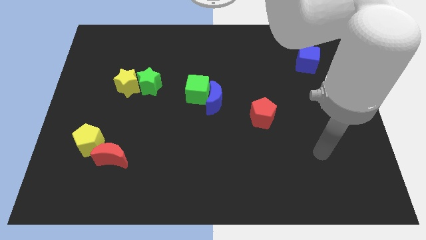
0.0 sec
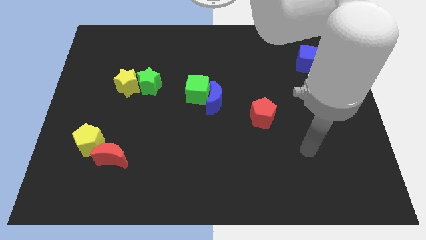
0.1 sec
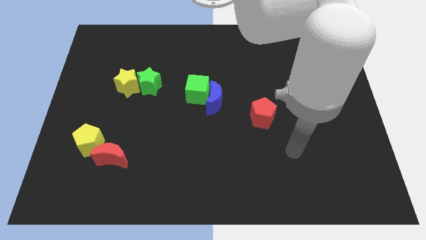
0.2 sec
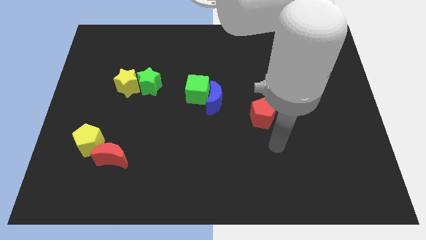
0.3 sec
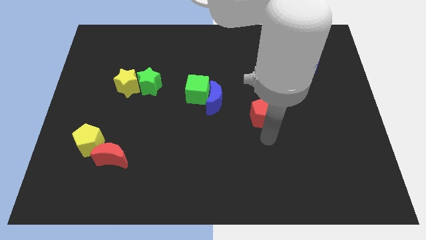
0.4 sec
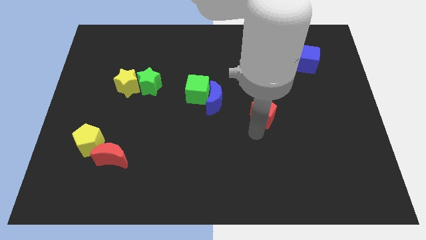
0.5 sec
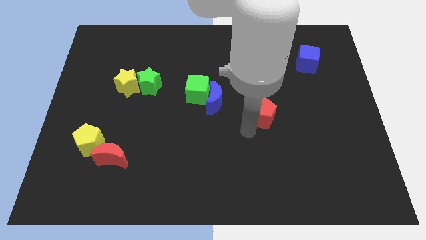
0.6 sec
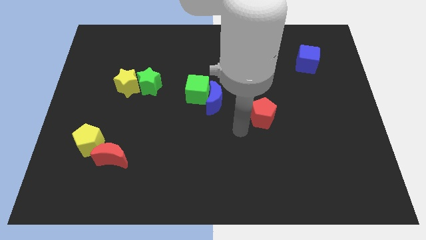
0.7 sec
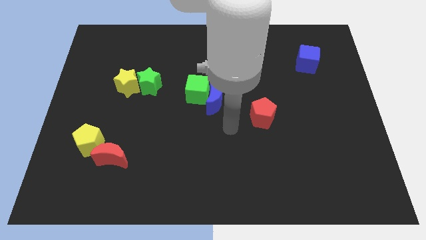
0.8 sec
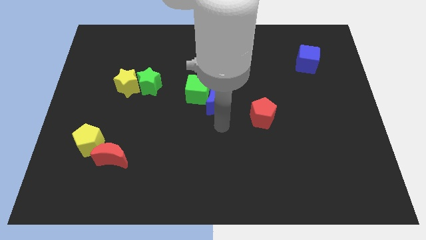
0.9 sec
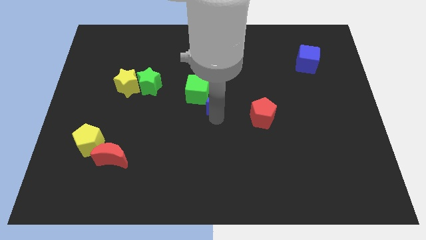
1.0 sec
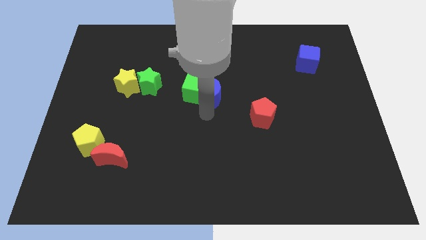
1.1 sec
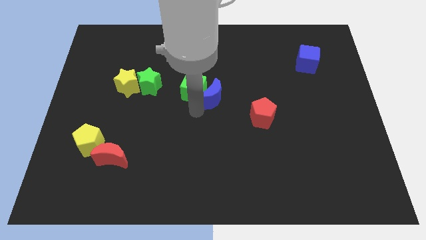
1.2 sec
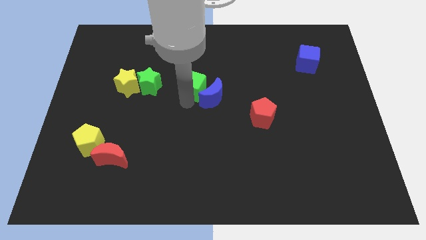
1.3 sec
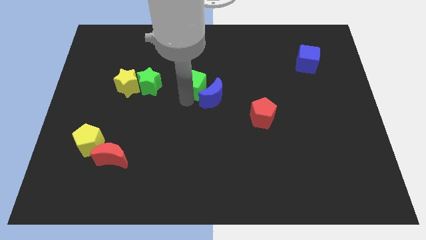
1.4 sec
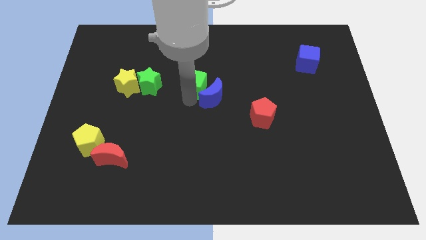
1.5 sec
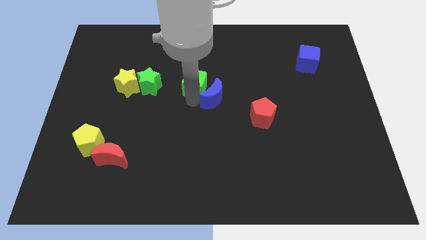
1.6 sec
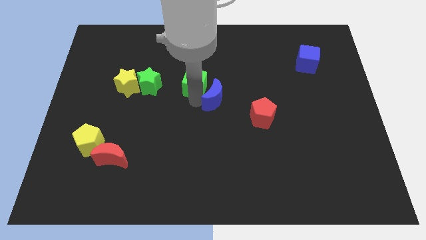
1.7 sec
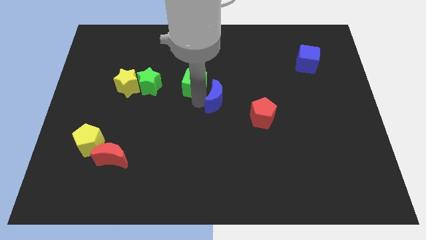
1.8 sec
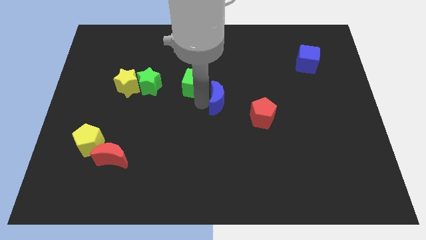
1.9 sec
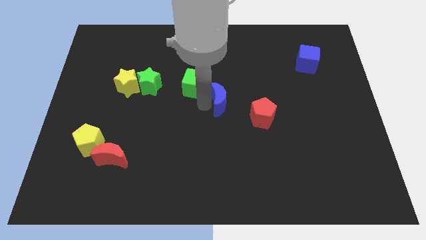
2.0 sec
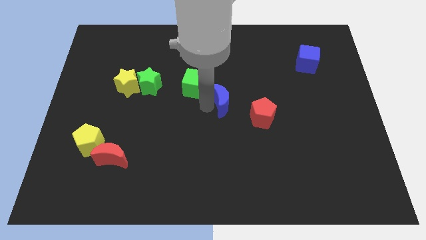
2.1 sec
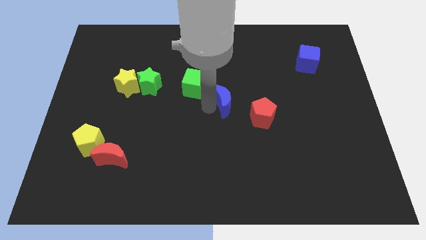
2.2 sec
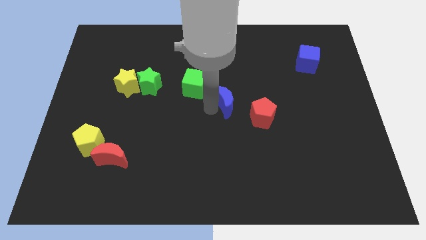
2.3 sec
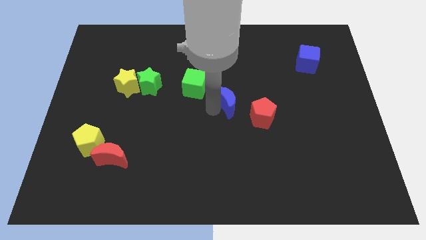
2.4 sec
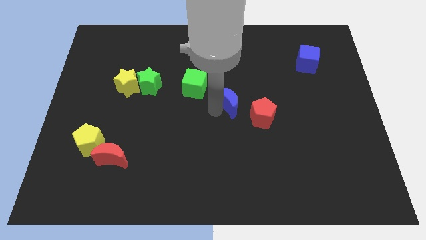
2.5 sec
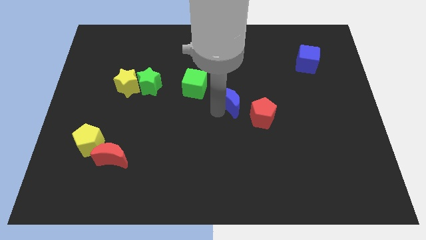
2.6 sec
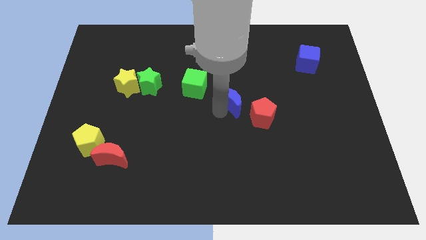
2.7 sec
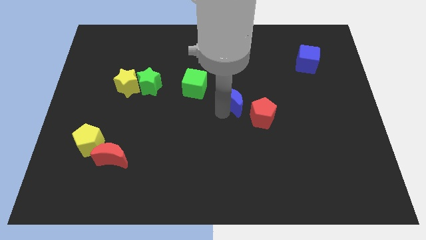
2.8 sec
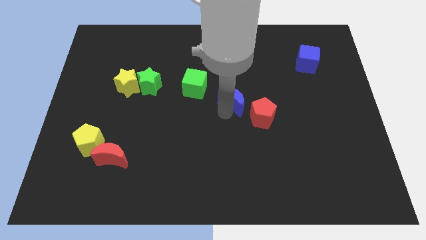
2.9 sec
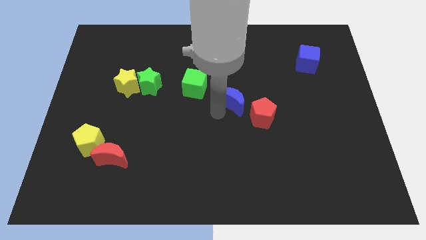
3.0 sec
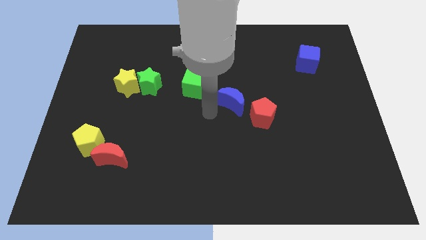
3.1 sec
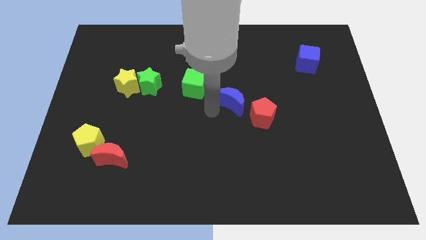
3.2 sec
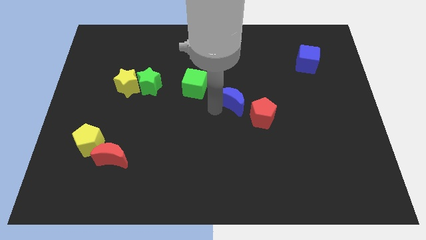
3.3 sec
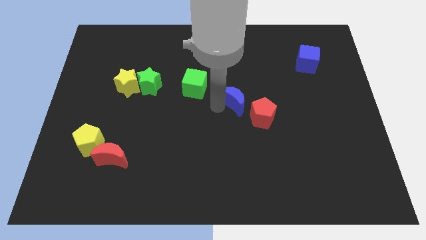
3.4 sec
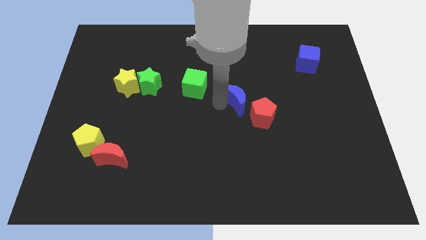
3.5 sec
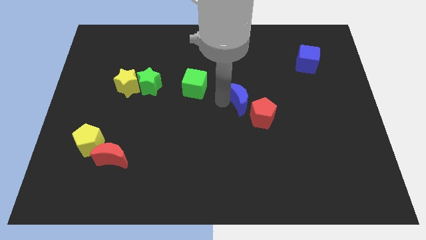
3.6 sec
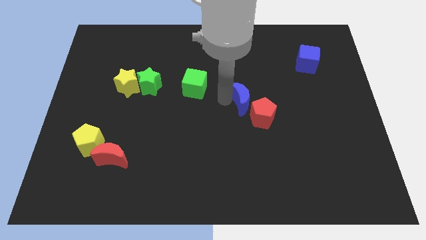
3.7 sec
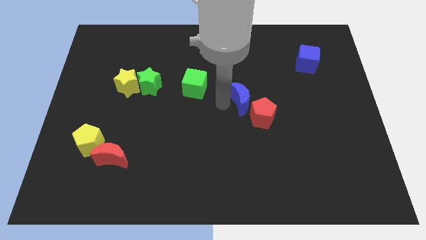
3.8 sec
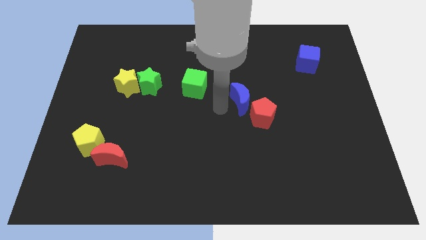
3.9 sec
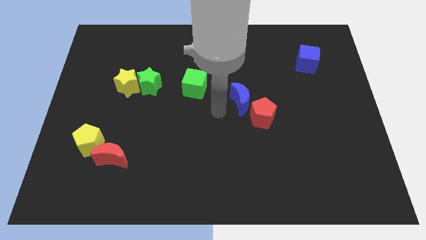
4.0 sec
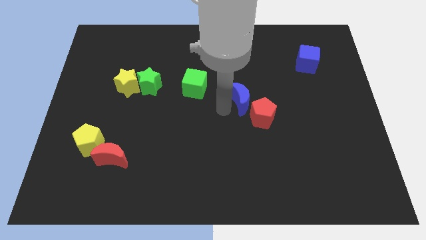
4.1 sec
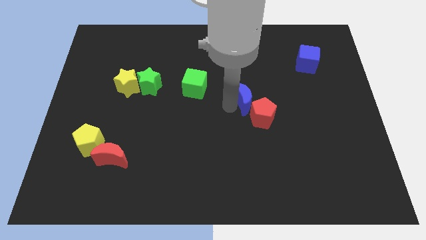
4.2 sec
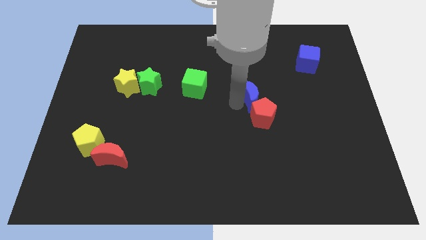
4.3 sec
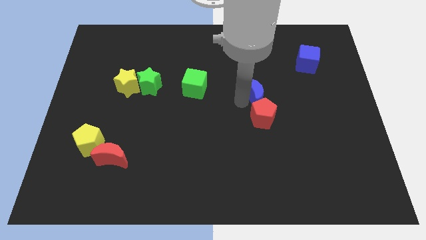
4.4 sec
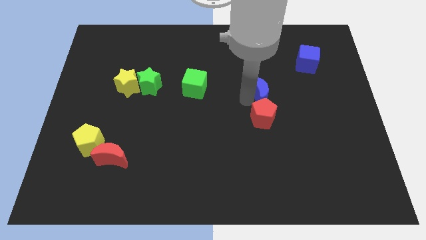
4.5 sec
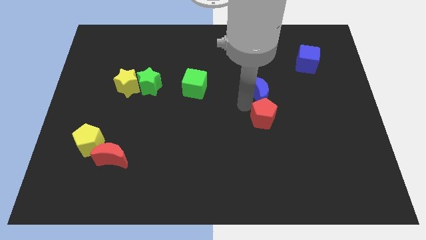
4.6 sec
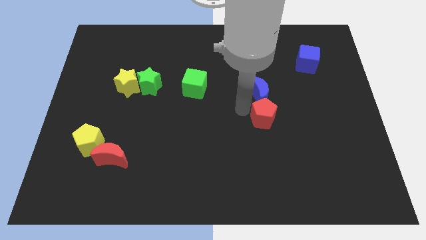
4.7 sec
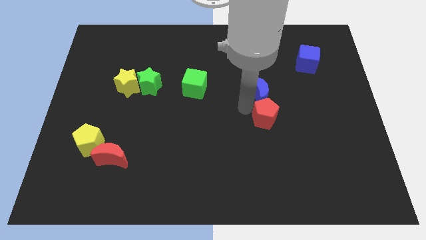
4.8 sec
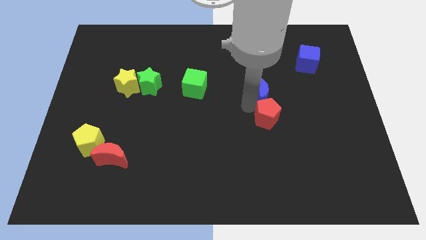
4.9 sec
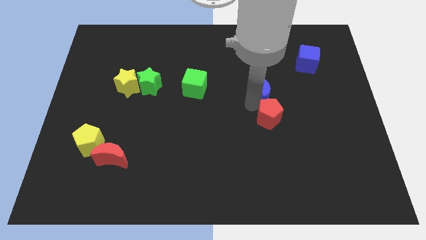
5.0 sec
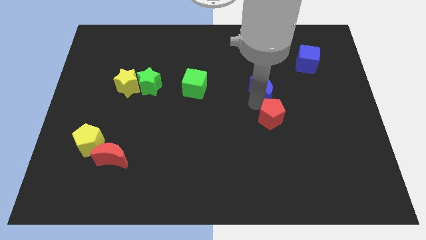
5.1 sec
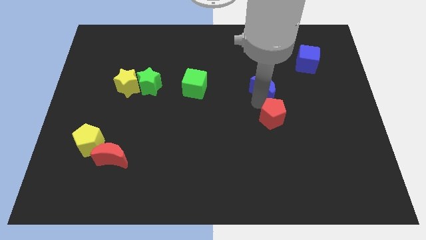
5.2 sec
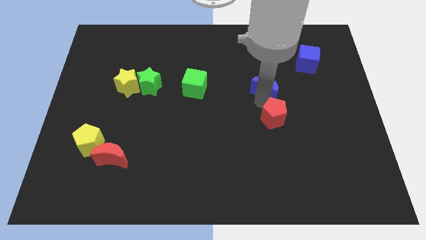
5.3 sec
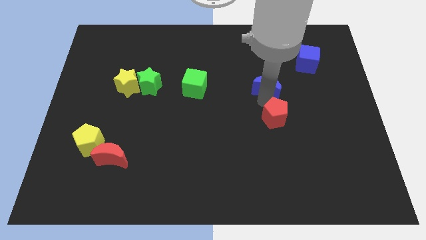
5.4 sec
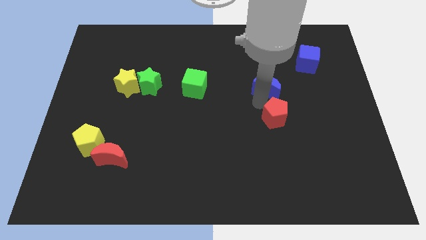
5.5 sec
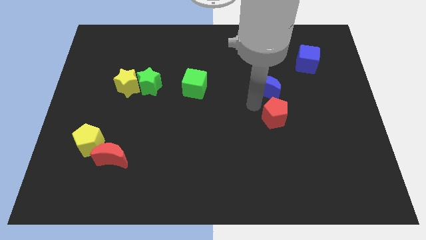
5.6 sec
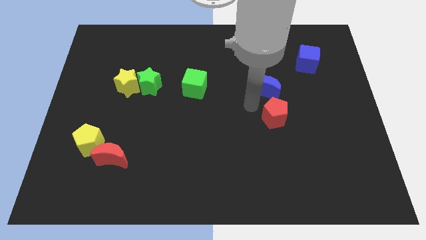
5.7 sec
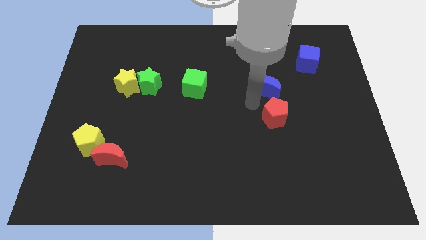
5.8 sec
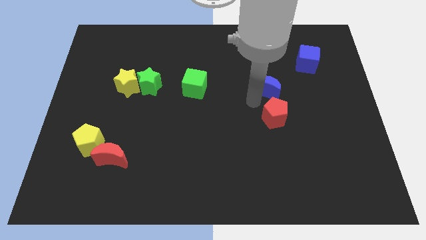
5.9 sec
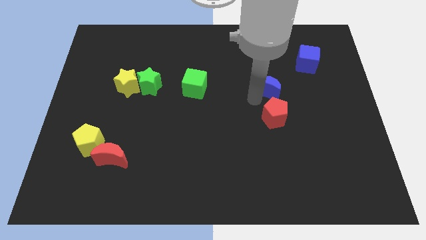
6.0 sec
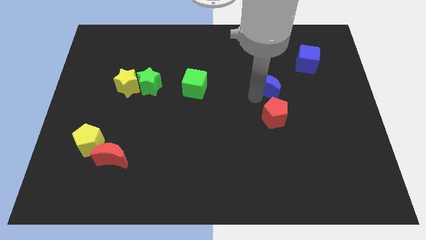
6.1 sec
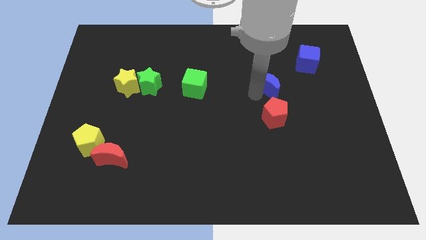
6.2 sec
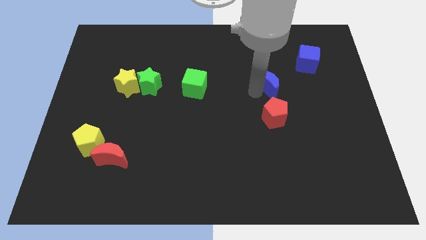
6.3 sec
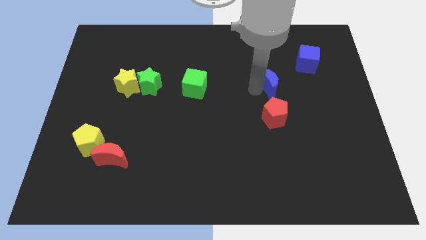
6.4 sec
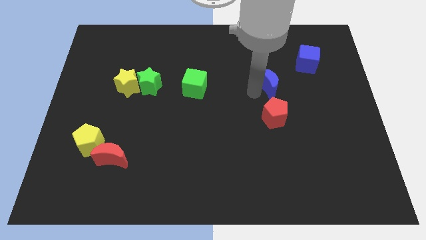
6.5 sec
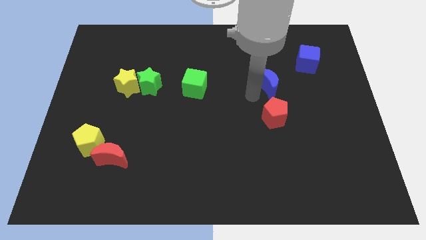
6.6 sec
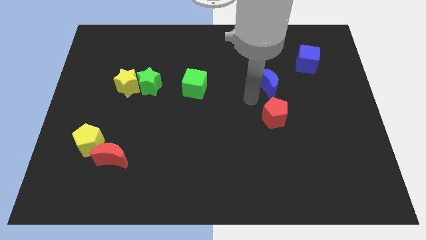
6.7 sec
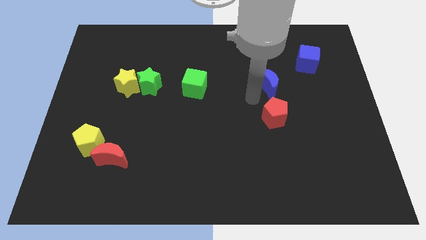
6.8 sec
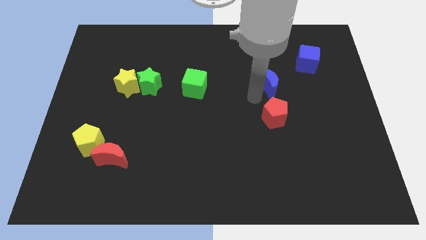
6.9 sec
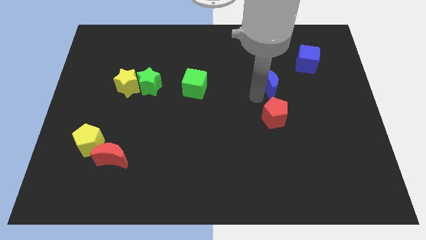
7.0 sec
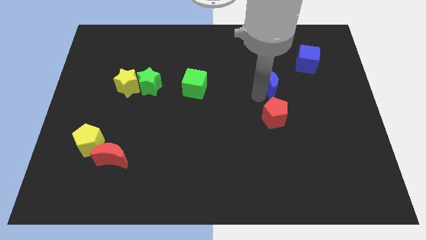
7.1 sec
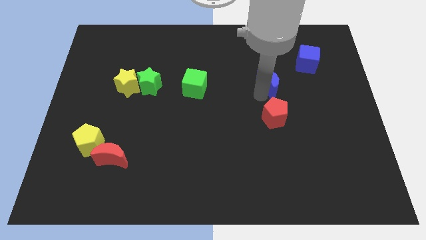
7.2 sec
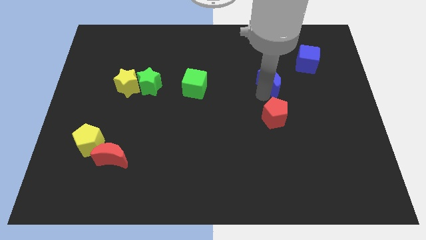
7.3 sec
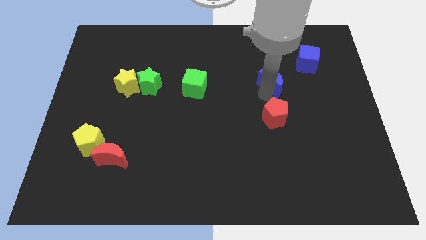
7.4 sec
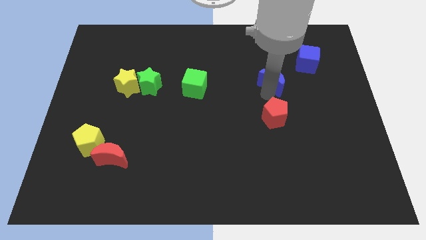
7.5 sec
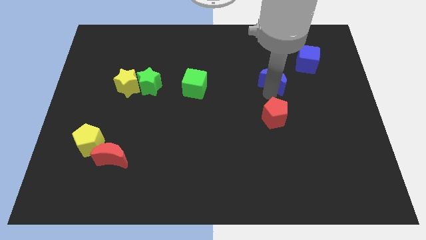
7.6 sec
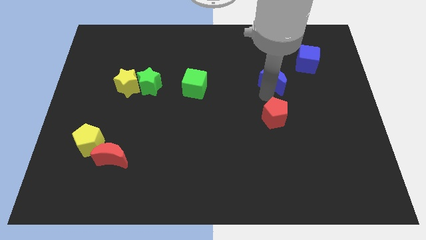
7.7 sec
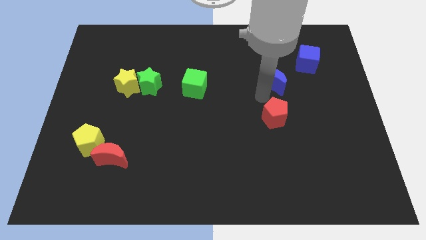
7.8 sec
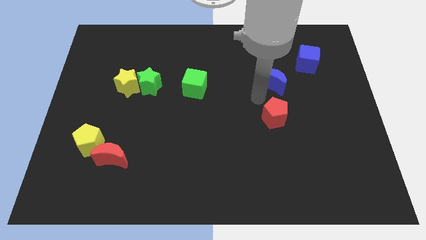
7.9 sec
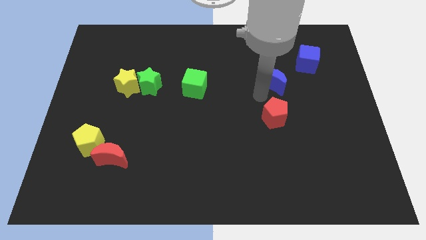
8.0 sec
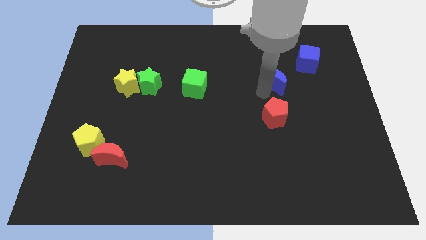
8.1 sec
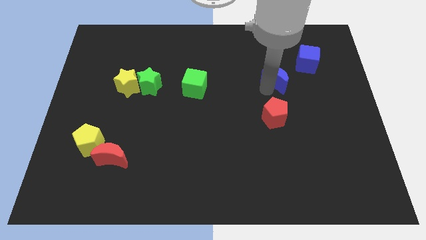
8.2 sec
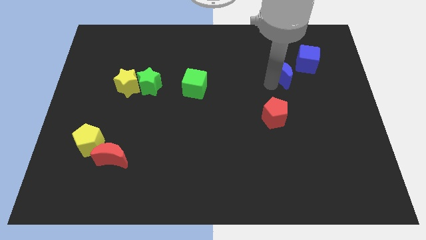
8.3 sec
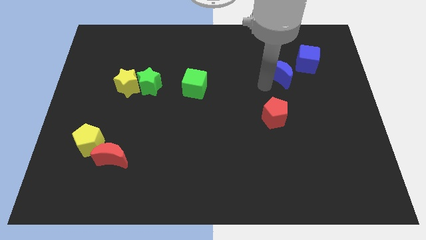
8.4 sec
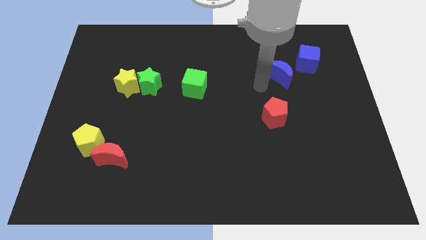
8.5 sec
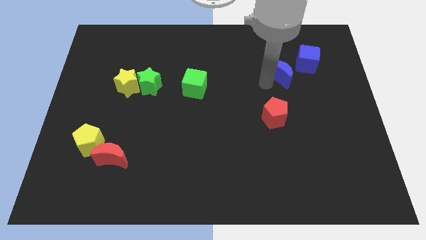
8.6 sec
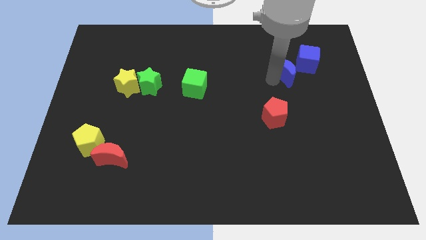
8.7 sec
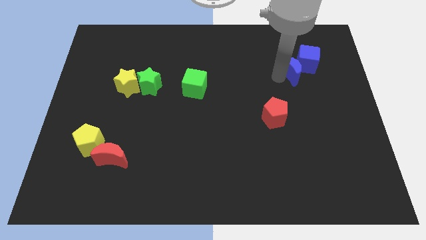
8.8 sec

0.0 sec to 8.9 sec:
put the blue moon close to the blue cube
